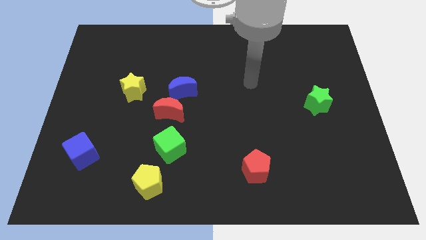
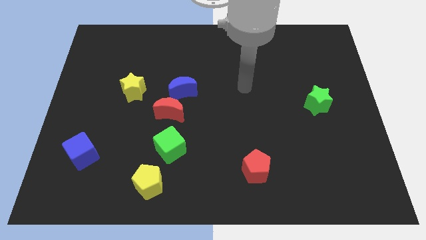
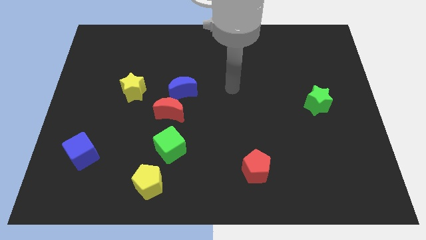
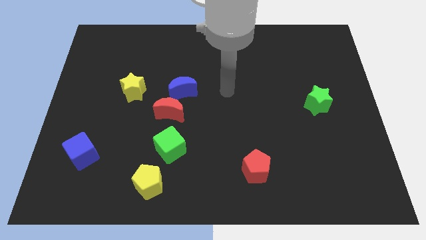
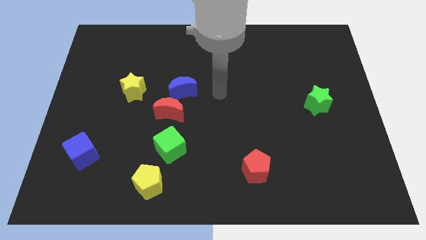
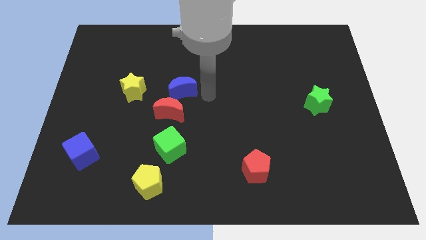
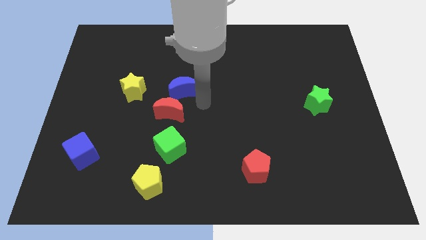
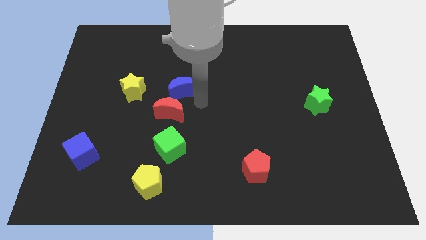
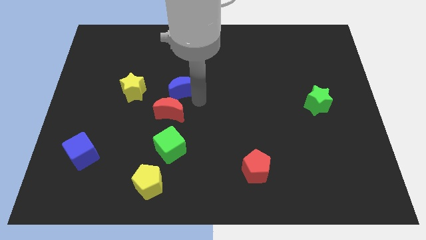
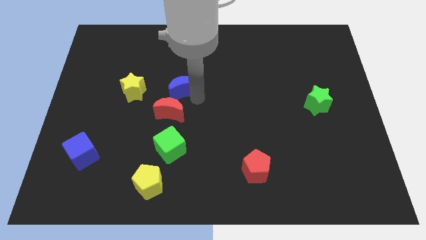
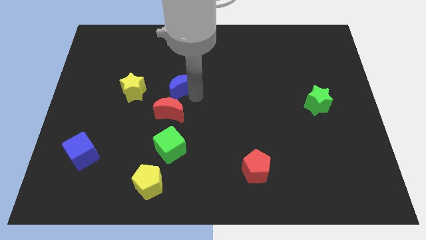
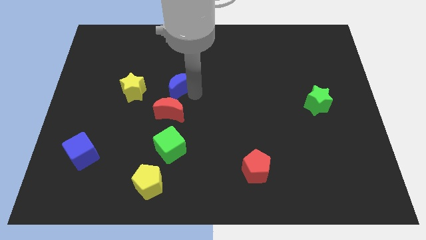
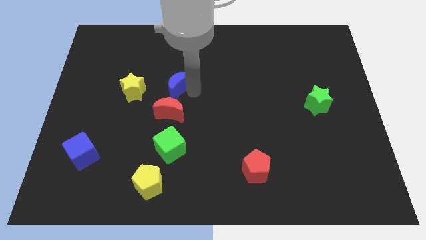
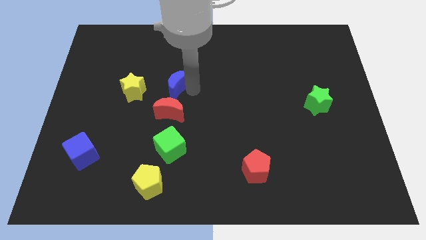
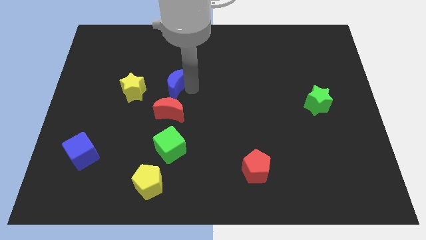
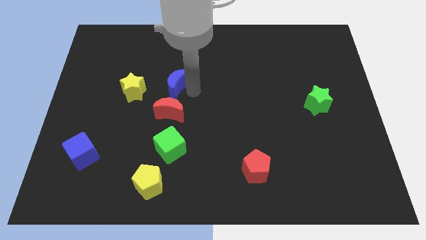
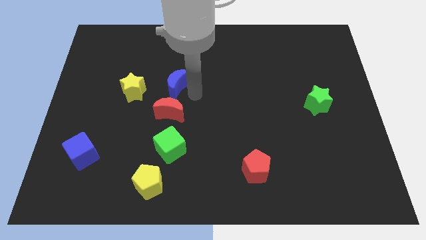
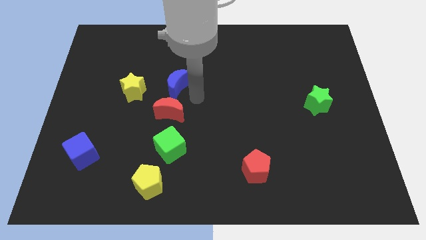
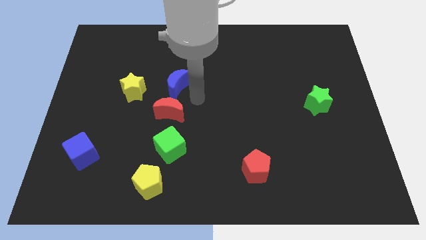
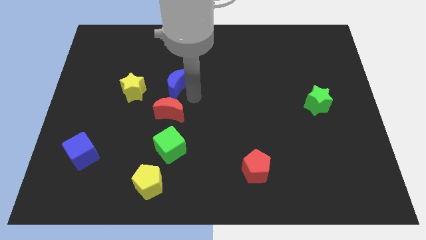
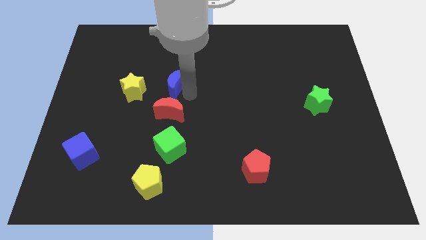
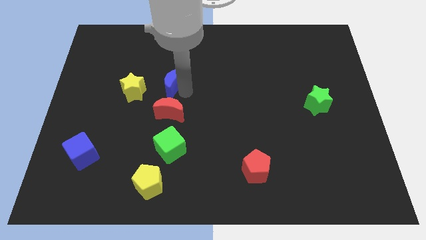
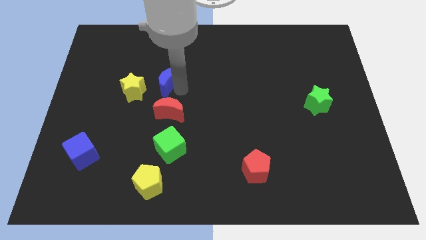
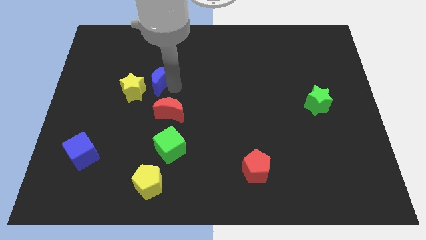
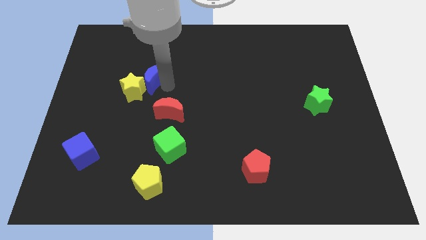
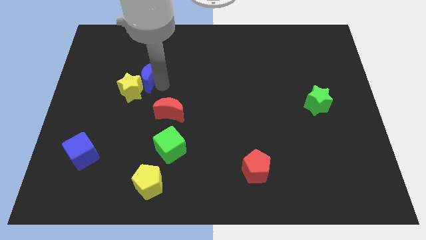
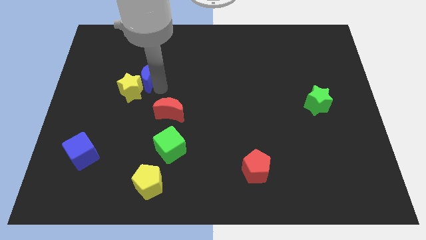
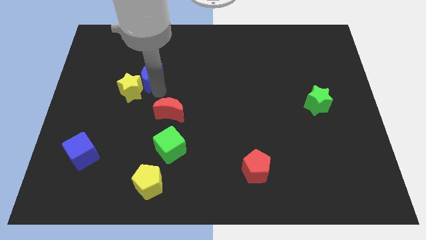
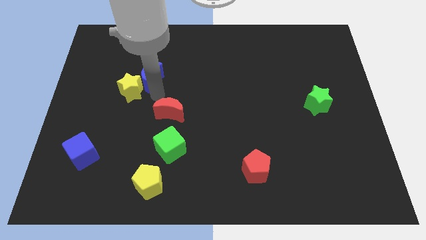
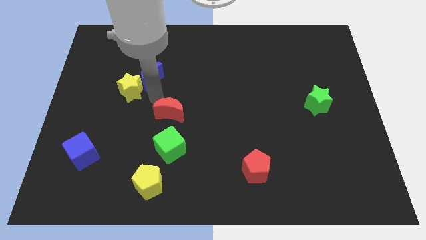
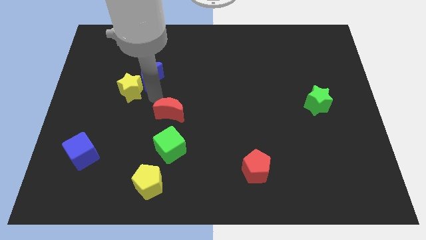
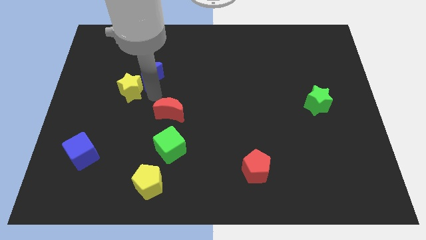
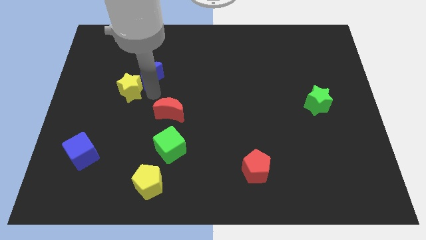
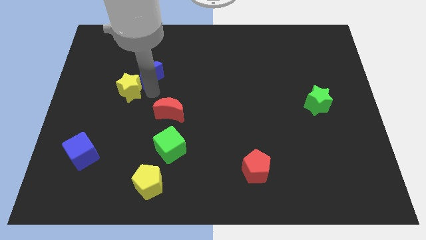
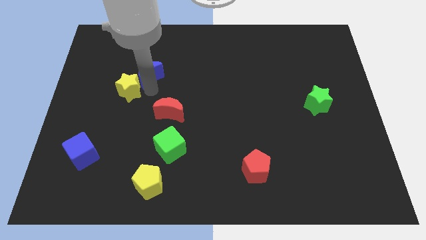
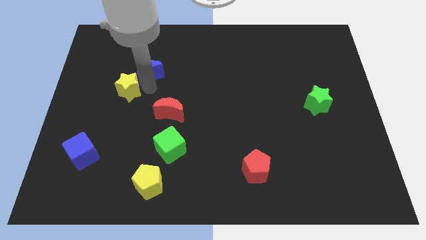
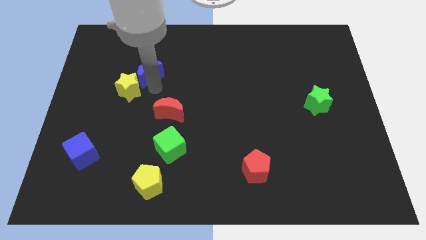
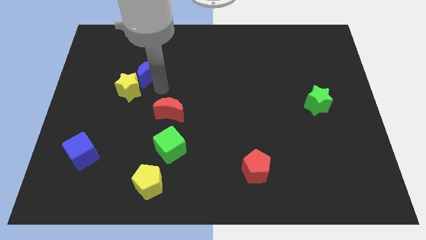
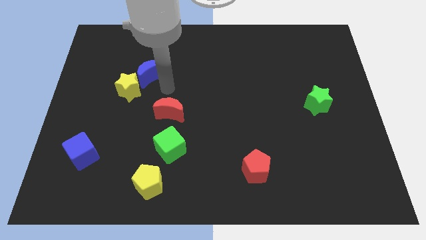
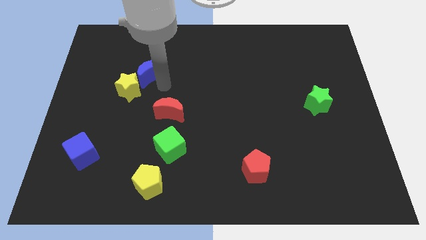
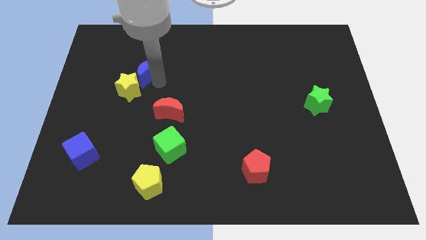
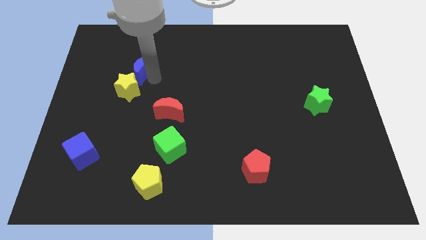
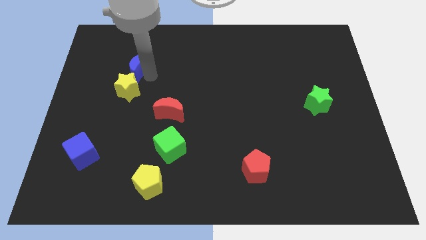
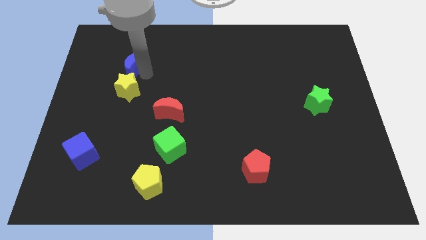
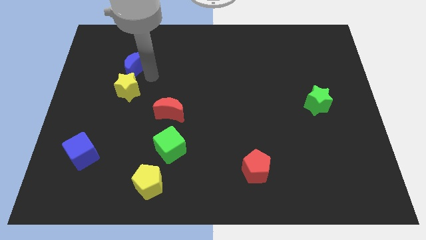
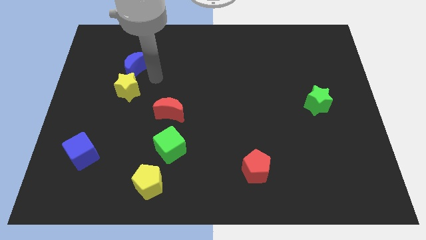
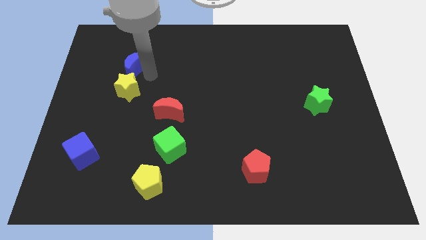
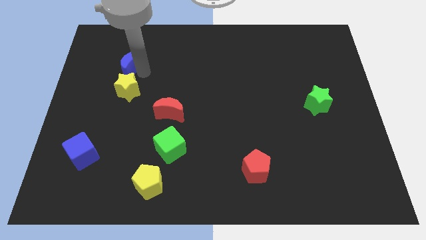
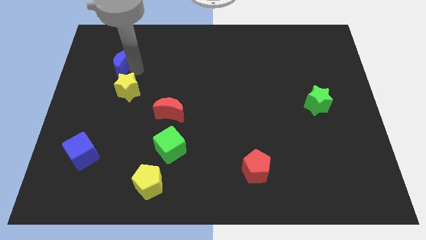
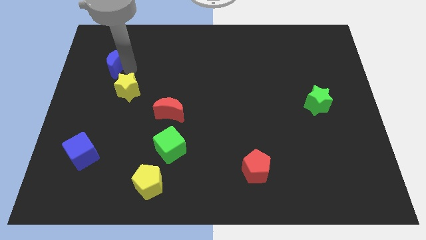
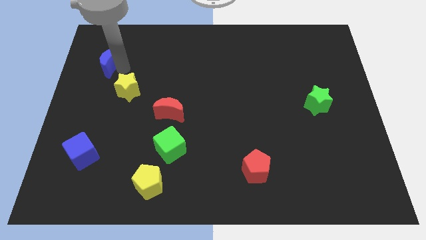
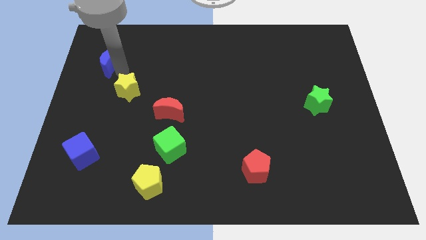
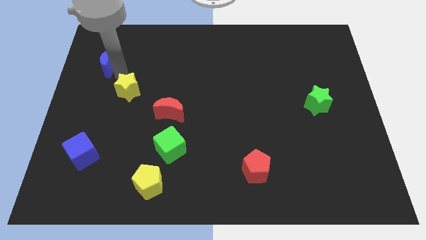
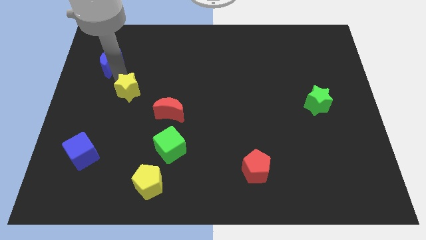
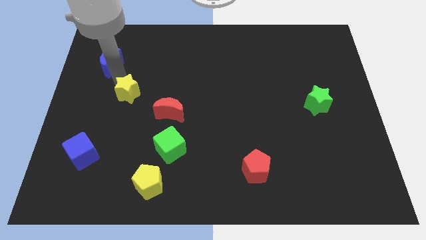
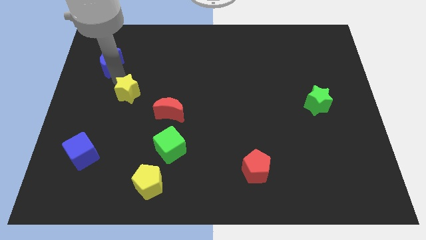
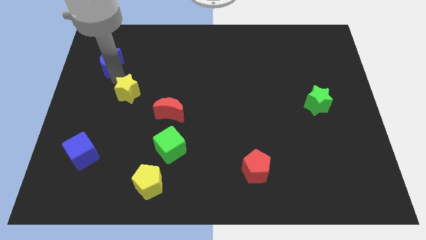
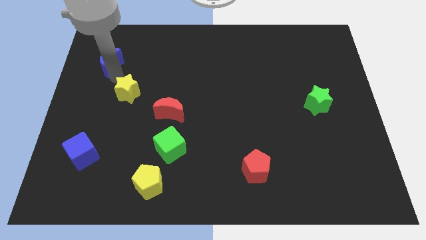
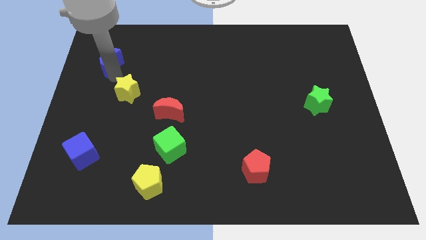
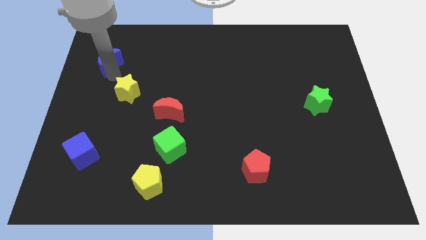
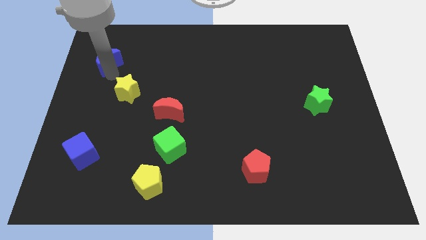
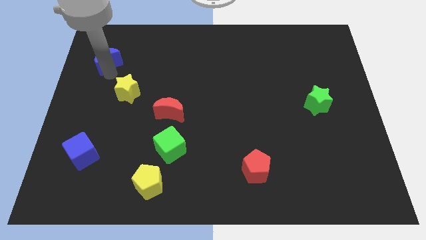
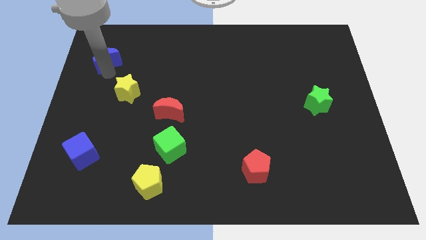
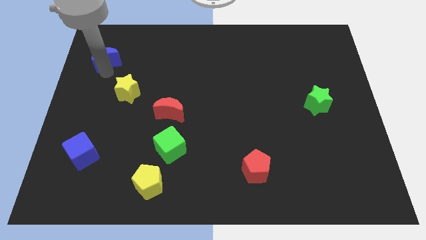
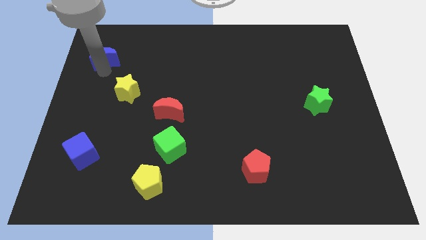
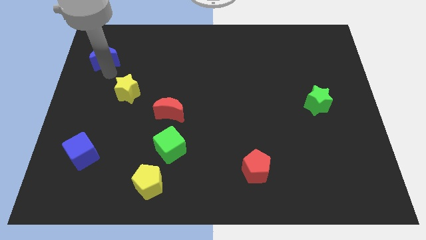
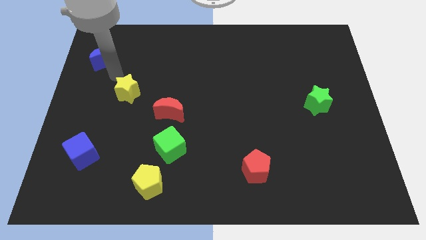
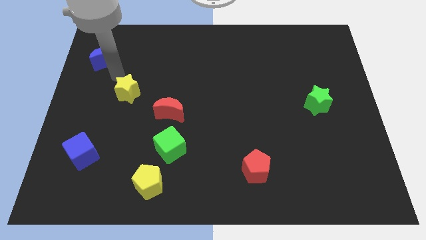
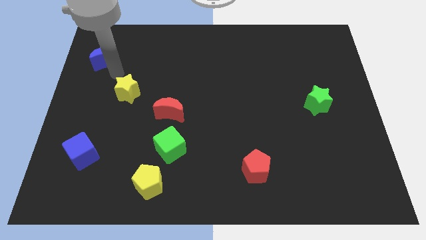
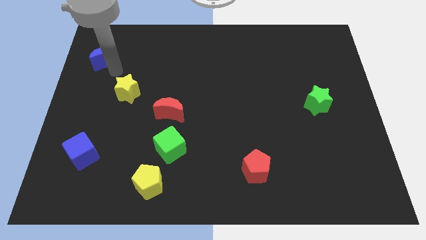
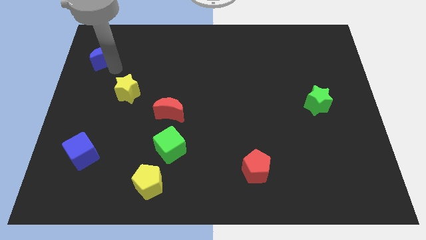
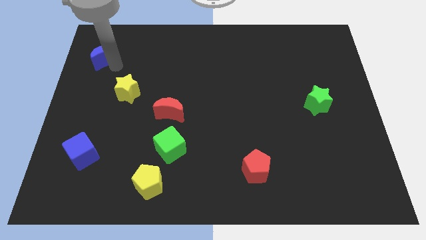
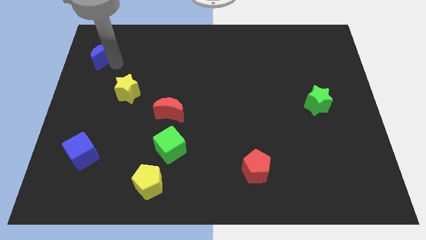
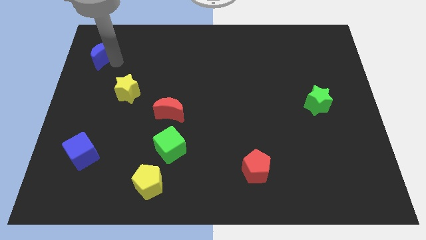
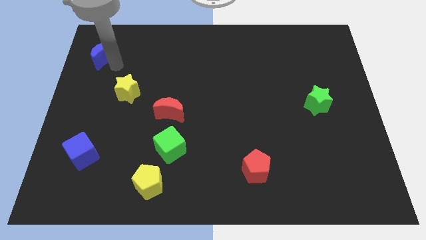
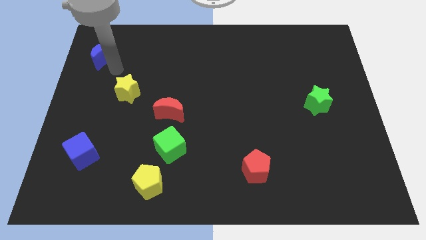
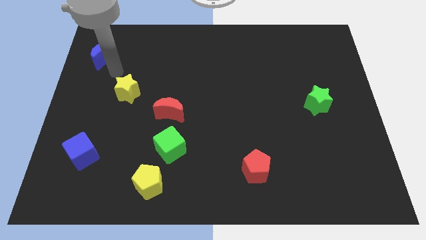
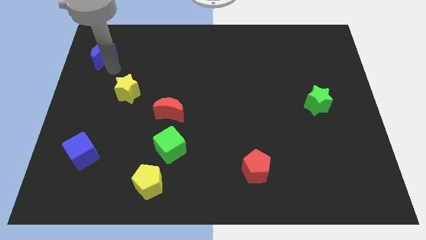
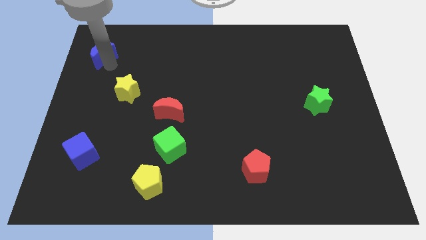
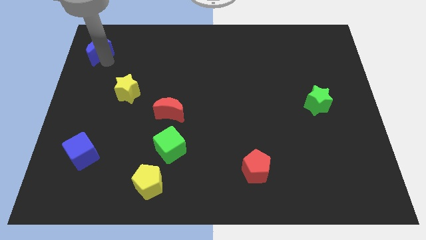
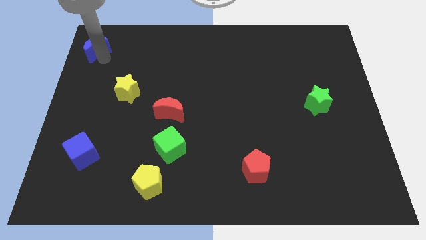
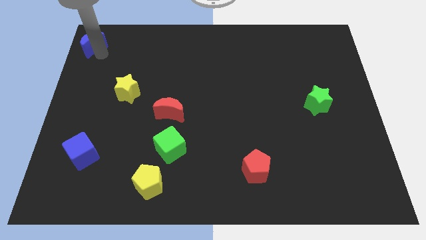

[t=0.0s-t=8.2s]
slide the blue moon to the top left
